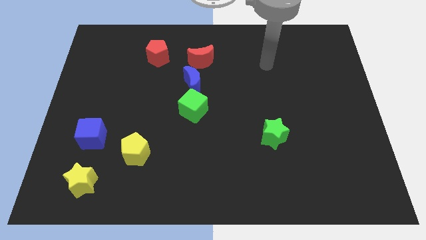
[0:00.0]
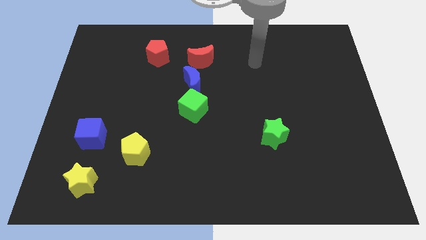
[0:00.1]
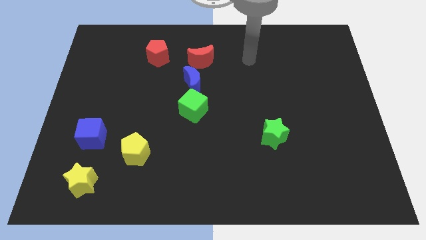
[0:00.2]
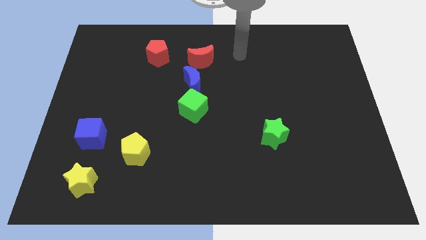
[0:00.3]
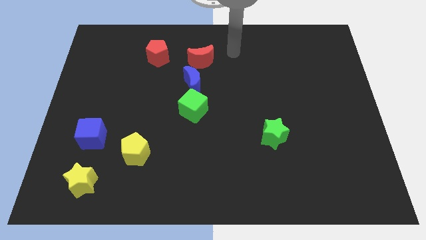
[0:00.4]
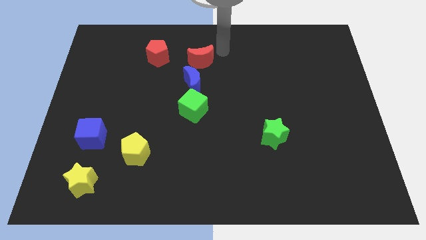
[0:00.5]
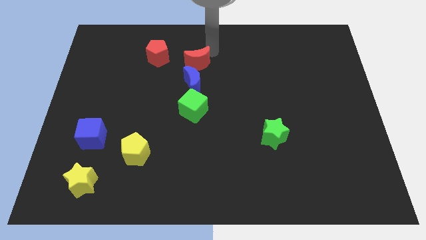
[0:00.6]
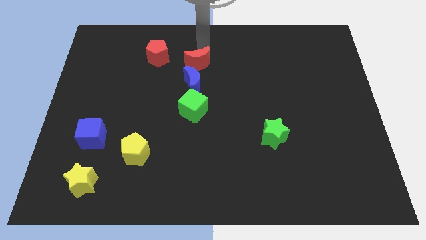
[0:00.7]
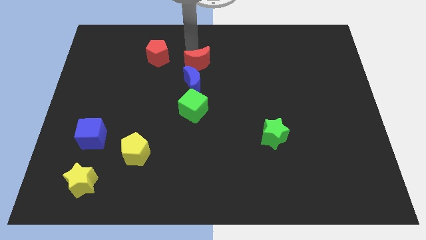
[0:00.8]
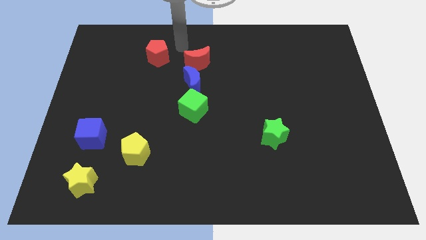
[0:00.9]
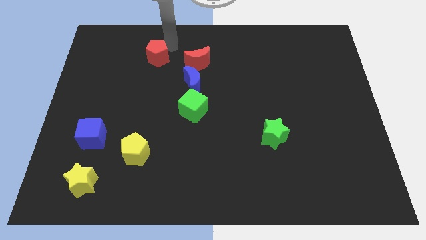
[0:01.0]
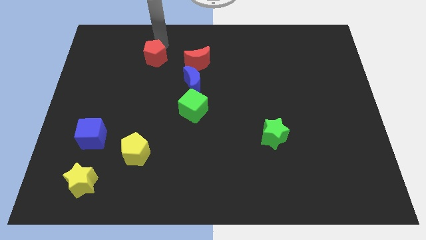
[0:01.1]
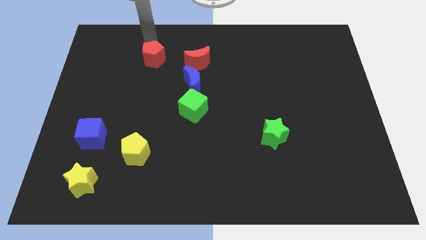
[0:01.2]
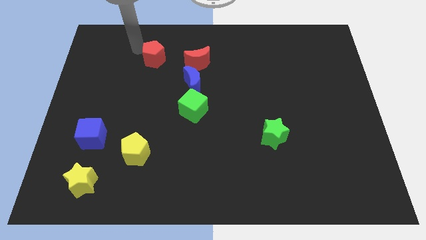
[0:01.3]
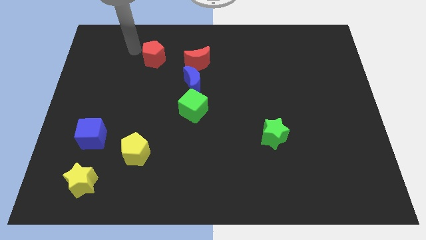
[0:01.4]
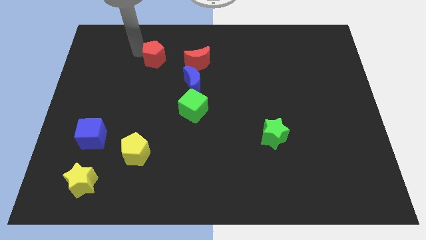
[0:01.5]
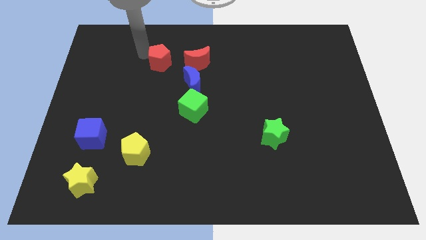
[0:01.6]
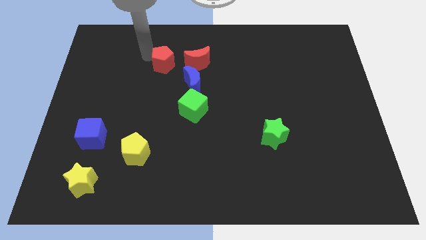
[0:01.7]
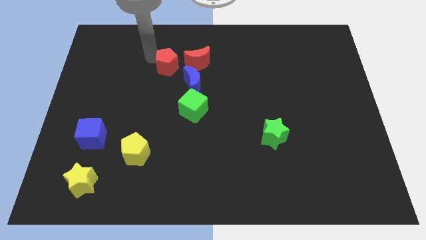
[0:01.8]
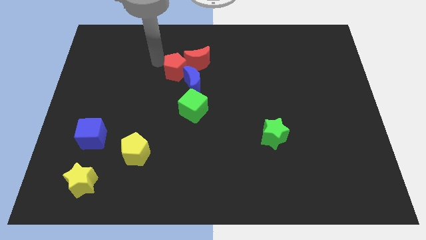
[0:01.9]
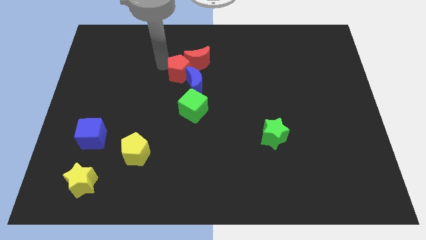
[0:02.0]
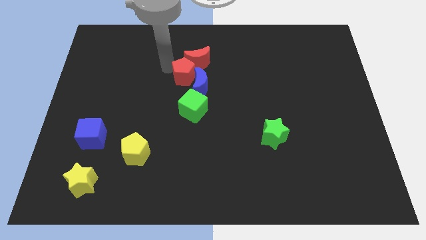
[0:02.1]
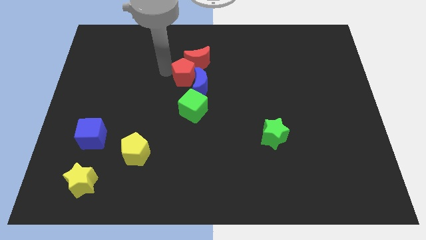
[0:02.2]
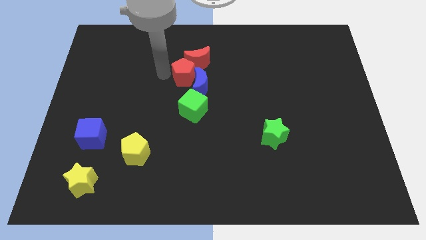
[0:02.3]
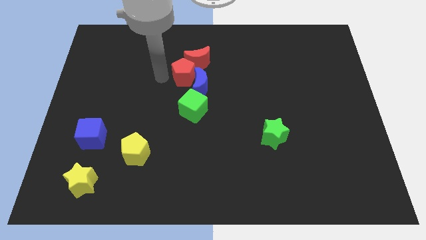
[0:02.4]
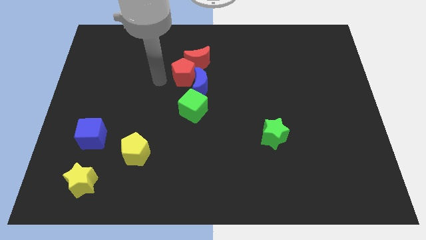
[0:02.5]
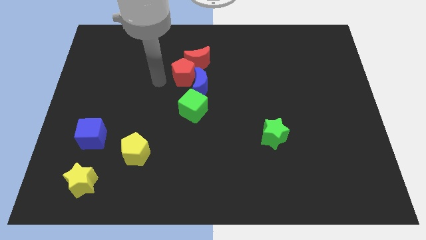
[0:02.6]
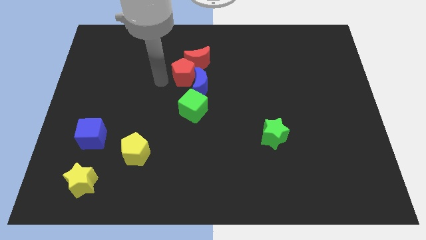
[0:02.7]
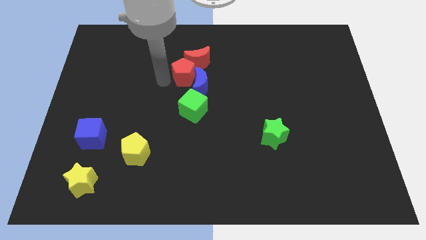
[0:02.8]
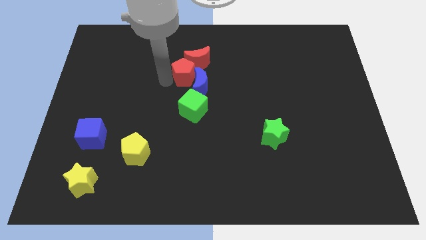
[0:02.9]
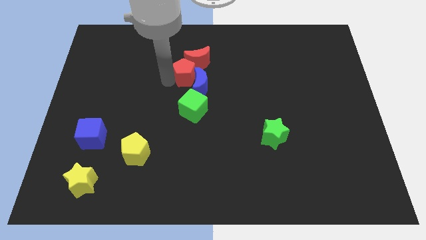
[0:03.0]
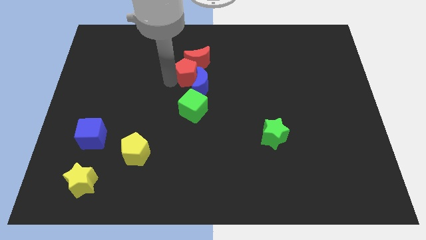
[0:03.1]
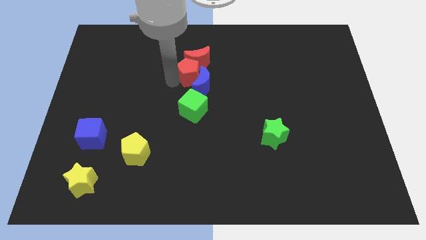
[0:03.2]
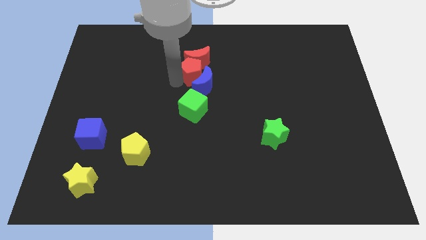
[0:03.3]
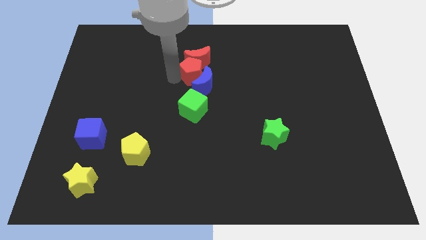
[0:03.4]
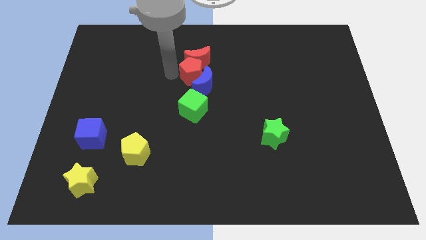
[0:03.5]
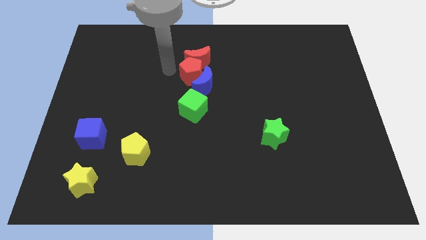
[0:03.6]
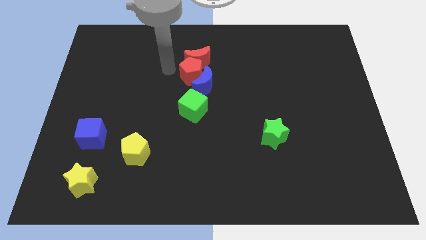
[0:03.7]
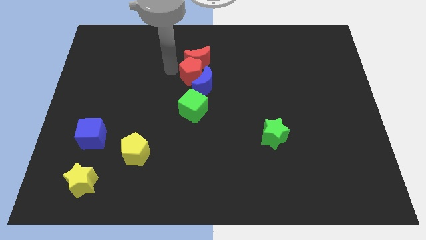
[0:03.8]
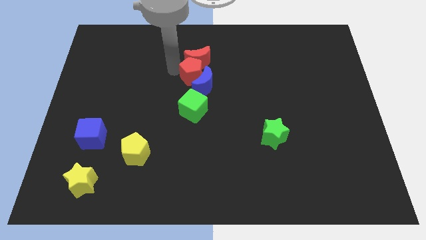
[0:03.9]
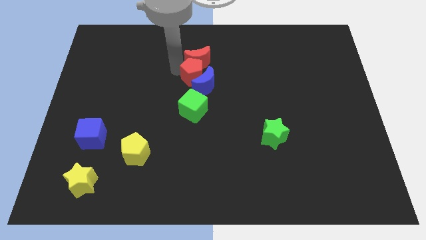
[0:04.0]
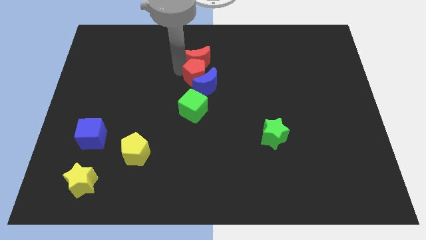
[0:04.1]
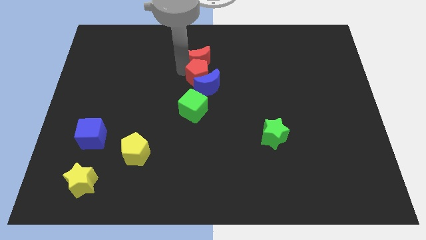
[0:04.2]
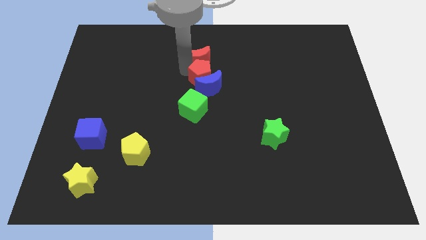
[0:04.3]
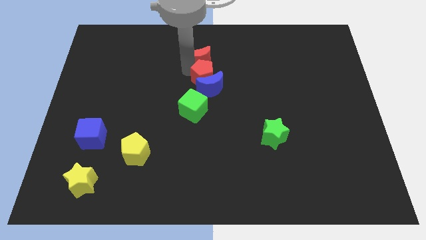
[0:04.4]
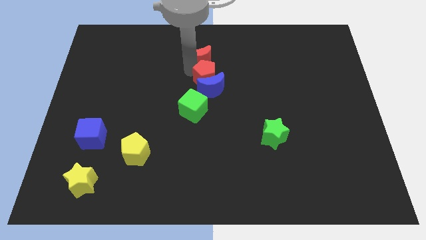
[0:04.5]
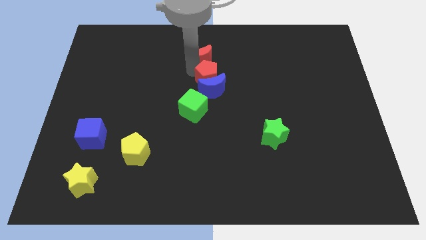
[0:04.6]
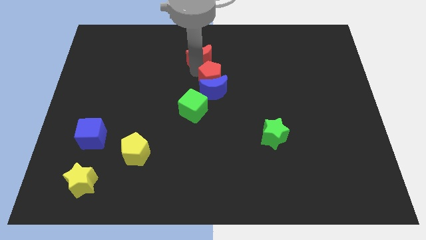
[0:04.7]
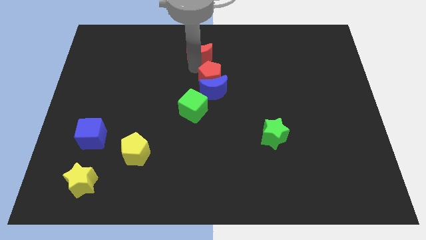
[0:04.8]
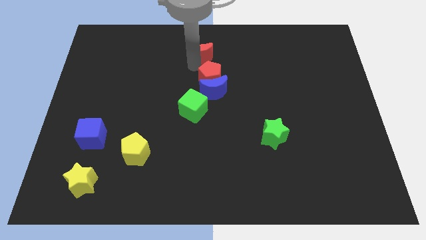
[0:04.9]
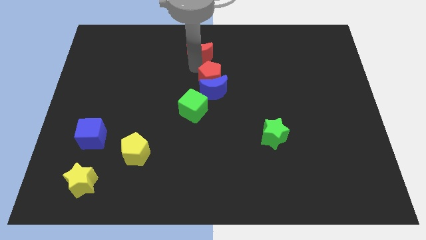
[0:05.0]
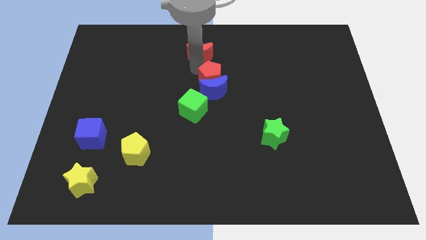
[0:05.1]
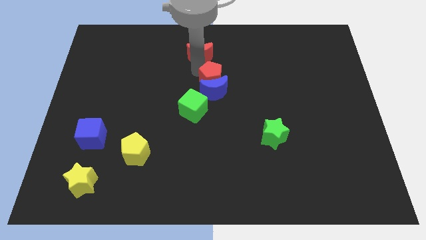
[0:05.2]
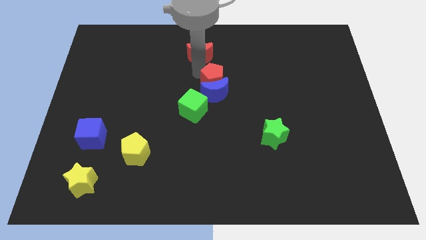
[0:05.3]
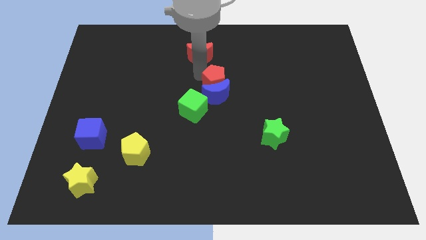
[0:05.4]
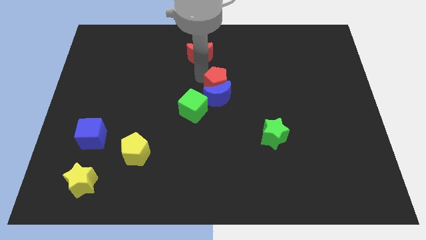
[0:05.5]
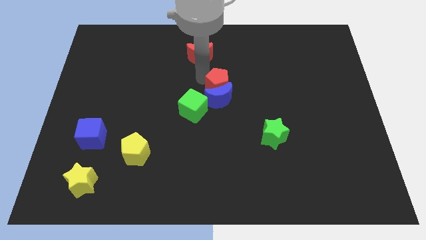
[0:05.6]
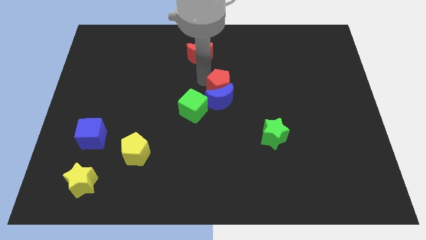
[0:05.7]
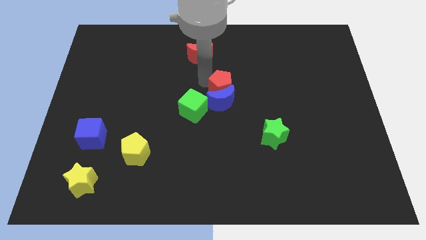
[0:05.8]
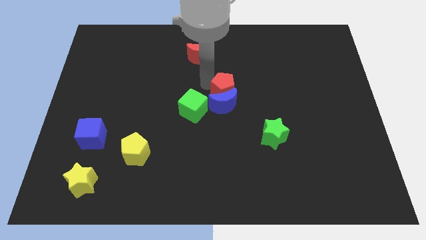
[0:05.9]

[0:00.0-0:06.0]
slide the red pentagon downwards and right

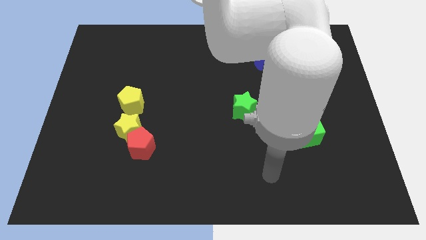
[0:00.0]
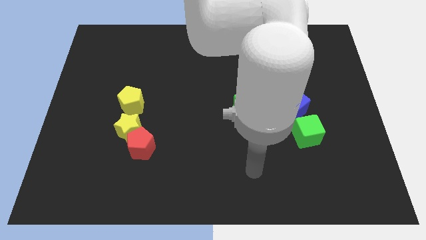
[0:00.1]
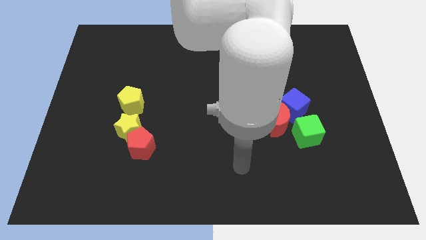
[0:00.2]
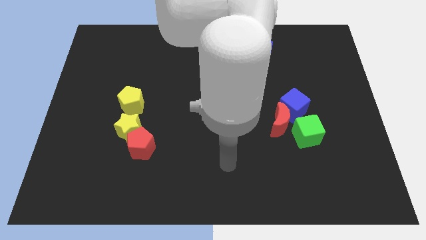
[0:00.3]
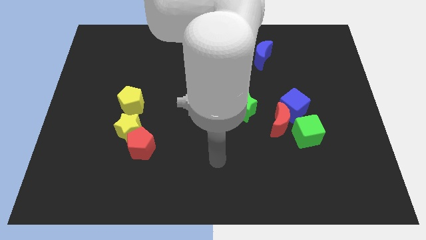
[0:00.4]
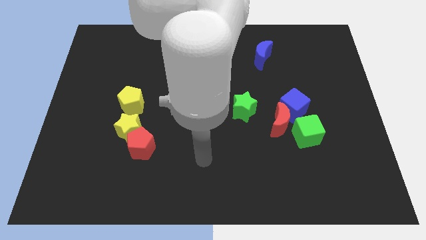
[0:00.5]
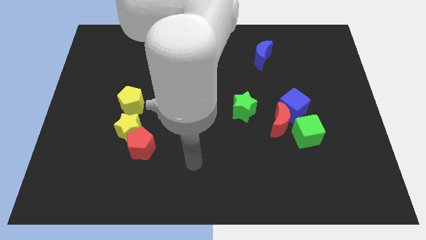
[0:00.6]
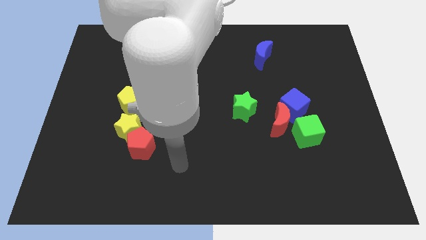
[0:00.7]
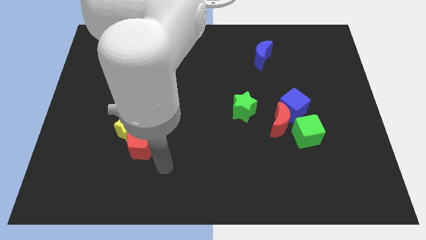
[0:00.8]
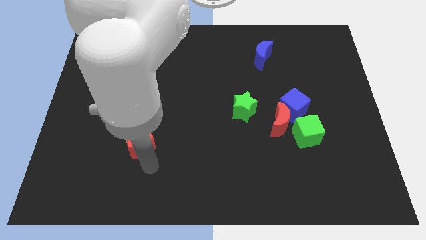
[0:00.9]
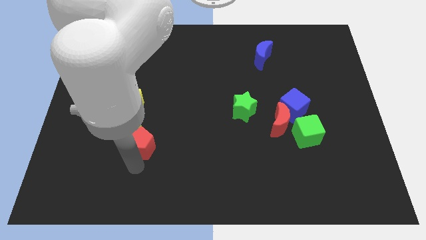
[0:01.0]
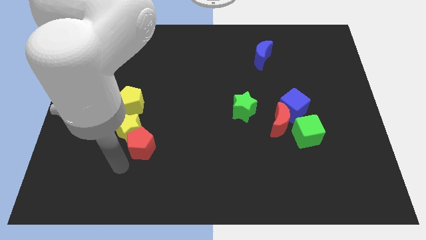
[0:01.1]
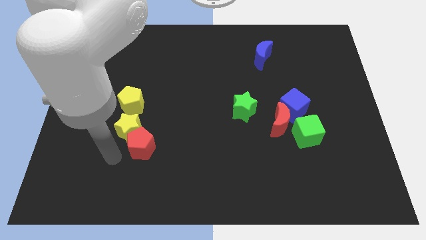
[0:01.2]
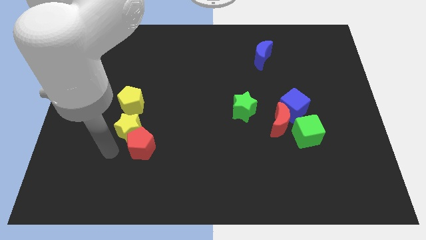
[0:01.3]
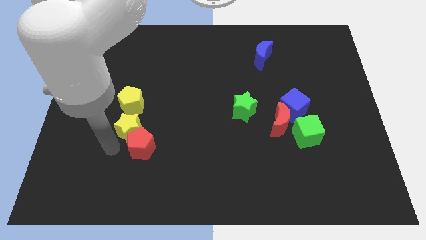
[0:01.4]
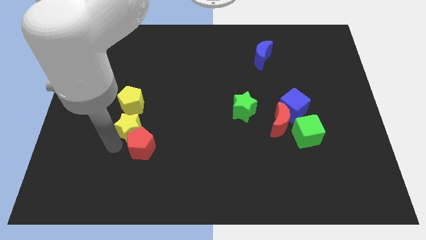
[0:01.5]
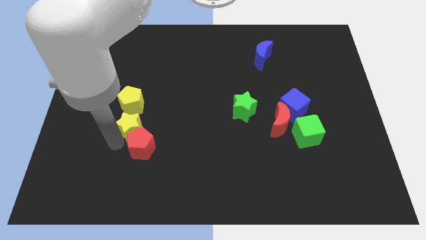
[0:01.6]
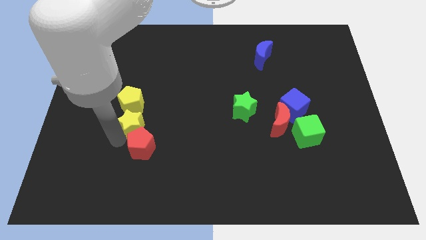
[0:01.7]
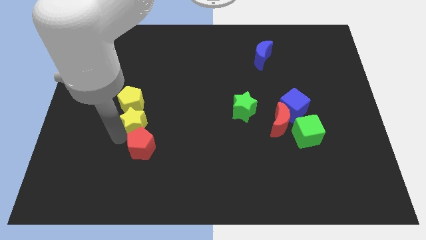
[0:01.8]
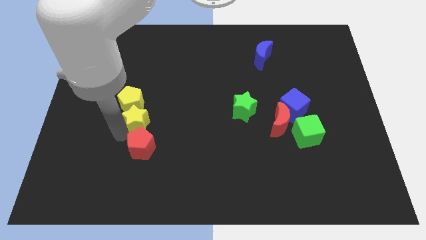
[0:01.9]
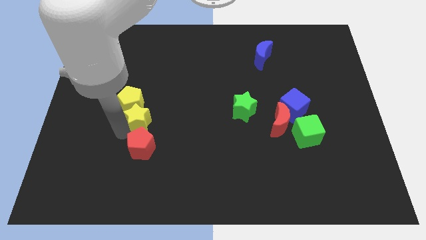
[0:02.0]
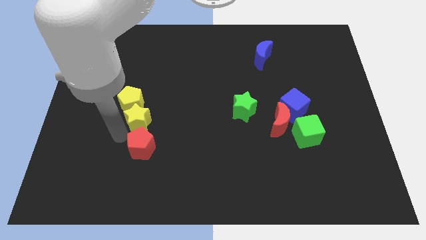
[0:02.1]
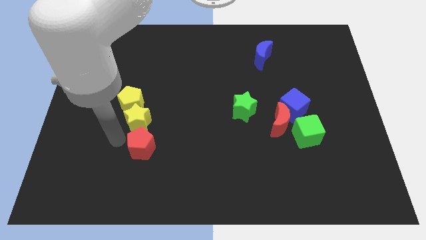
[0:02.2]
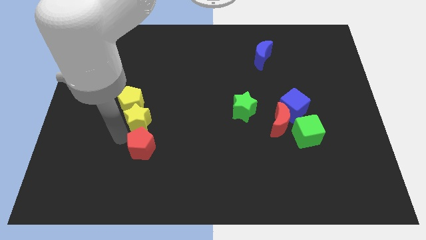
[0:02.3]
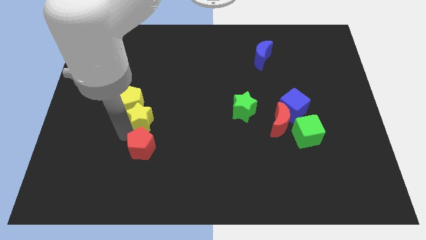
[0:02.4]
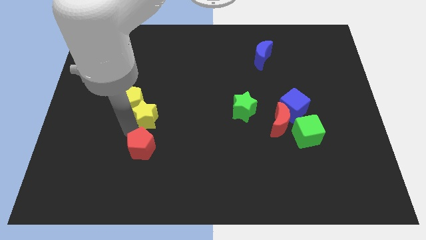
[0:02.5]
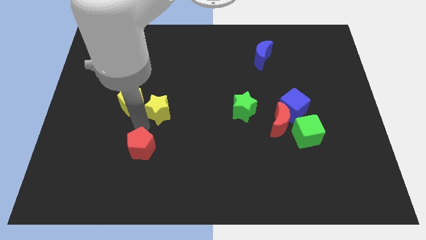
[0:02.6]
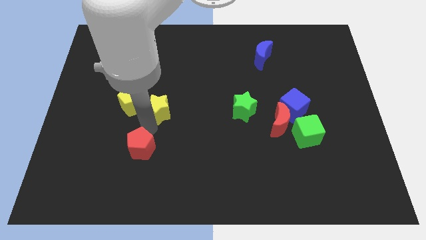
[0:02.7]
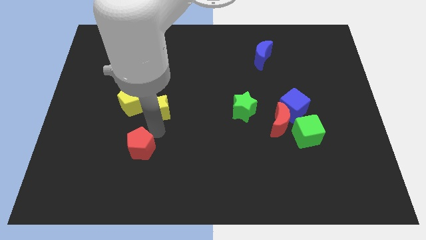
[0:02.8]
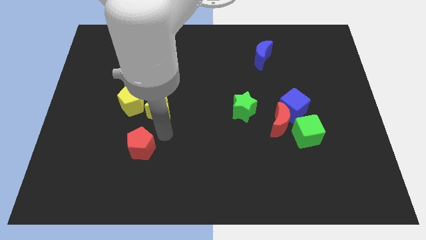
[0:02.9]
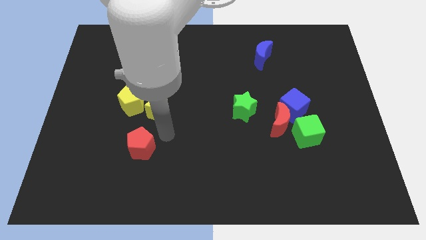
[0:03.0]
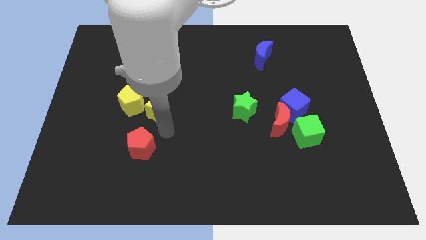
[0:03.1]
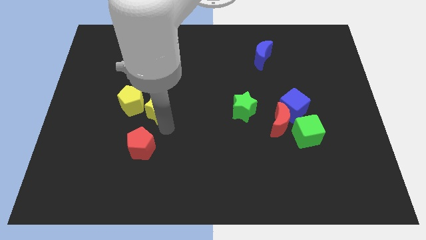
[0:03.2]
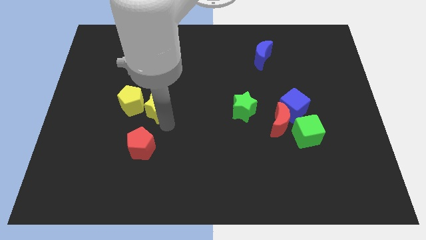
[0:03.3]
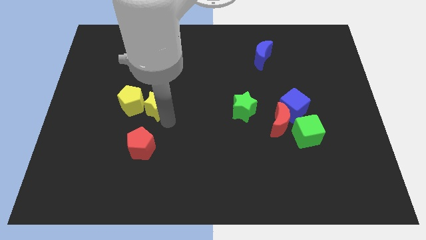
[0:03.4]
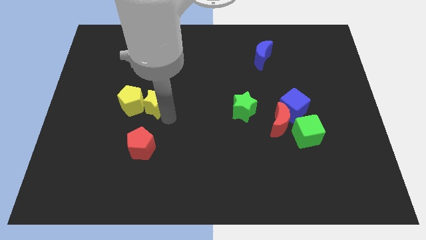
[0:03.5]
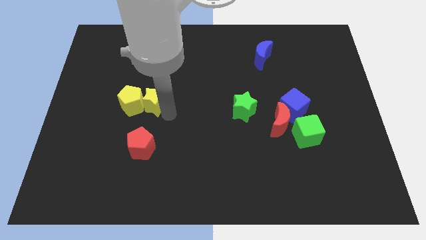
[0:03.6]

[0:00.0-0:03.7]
slightly move the yellow star upwards
